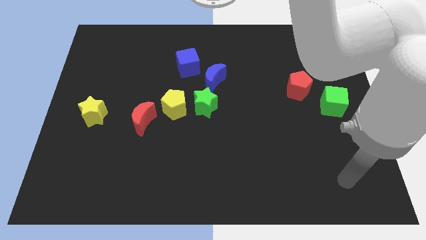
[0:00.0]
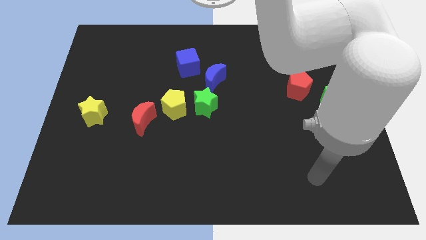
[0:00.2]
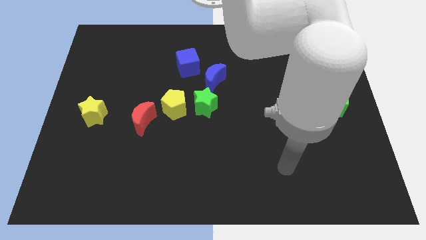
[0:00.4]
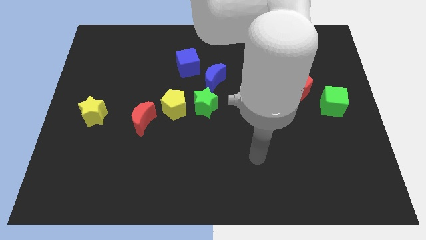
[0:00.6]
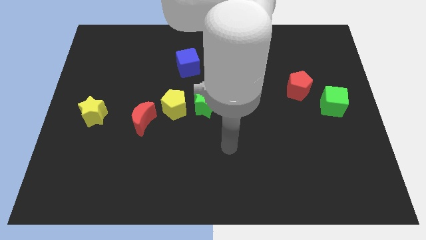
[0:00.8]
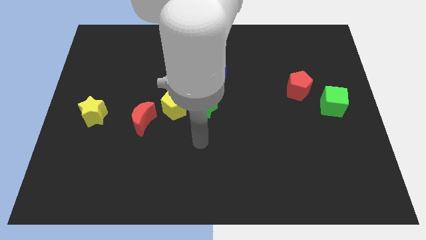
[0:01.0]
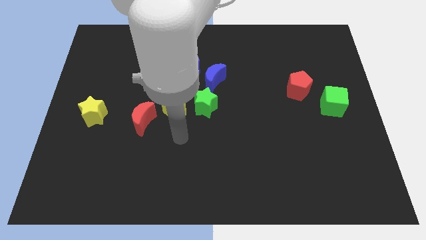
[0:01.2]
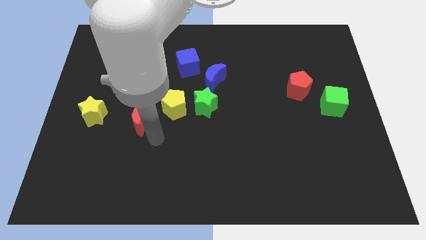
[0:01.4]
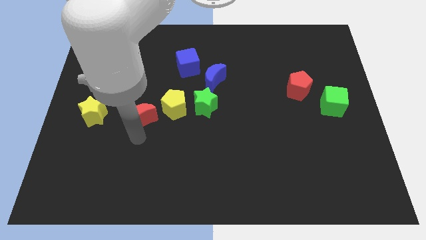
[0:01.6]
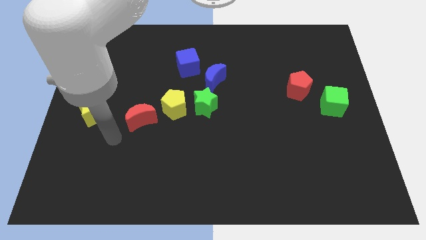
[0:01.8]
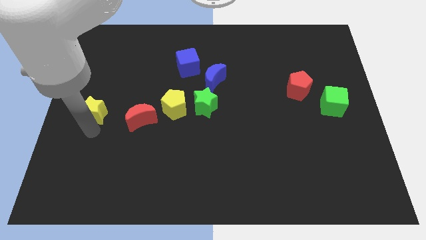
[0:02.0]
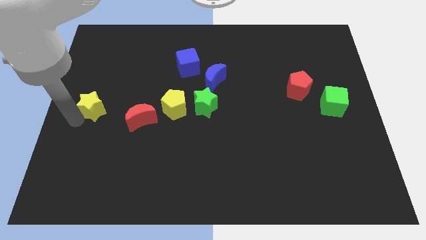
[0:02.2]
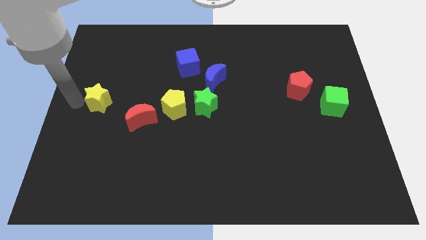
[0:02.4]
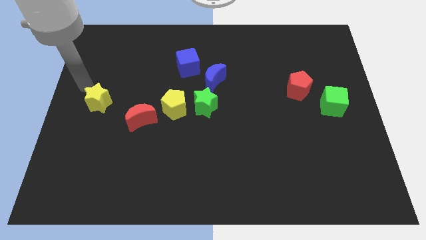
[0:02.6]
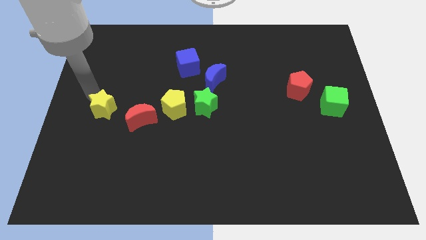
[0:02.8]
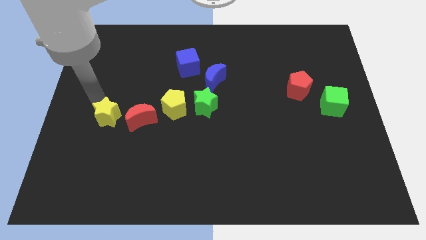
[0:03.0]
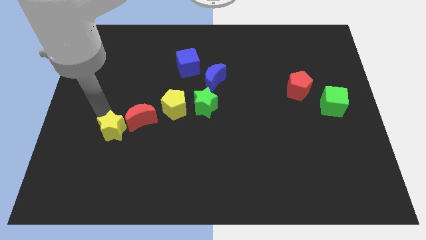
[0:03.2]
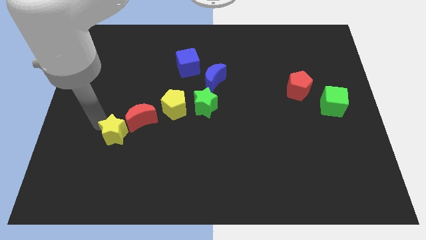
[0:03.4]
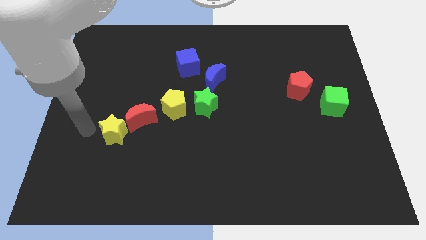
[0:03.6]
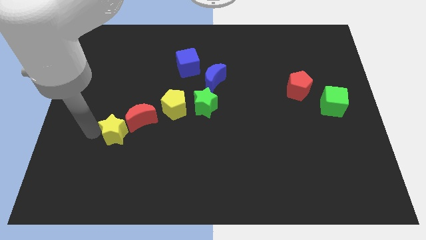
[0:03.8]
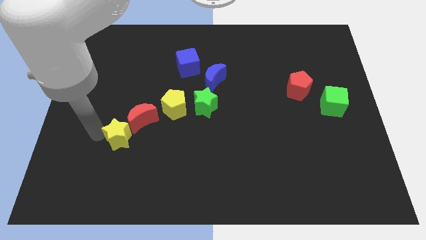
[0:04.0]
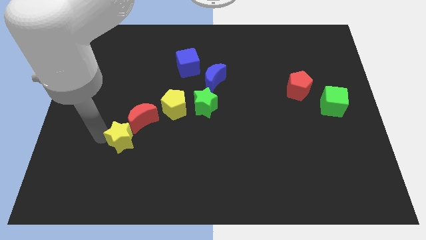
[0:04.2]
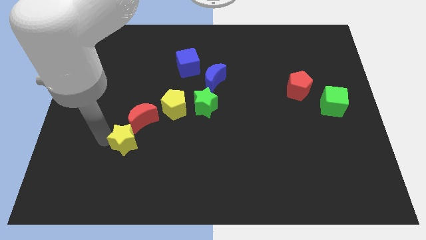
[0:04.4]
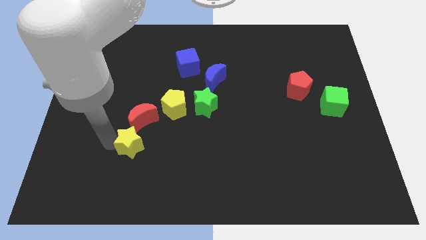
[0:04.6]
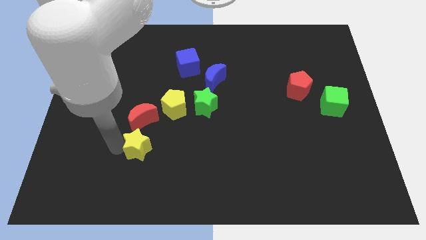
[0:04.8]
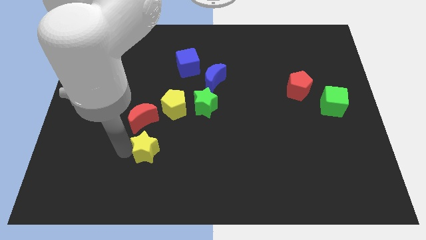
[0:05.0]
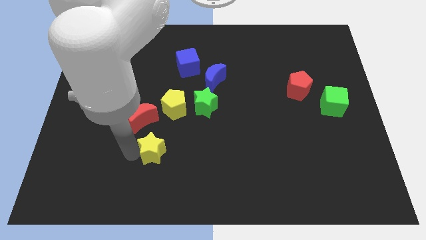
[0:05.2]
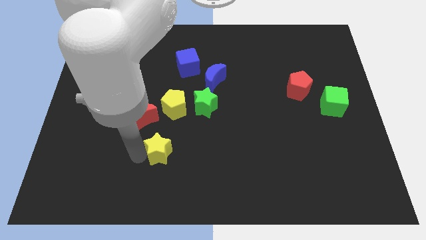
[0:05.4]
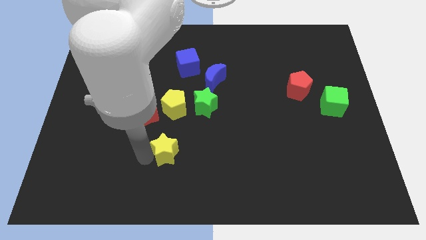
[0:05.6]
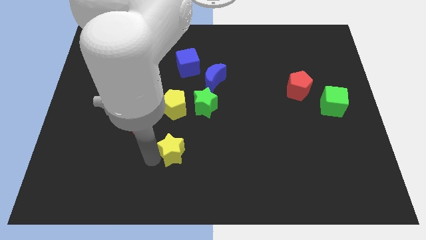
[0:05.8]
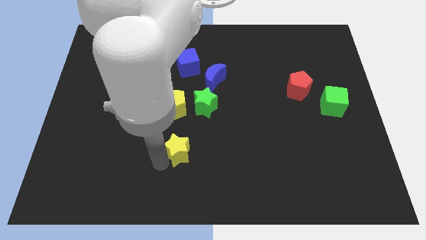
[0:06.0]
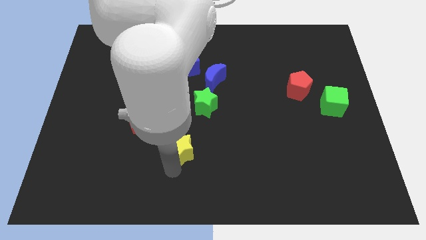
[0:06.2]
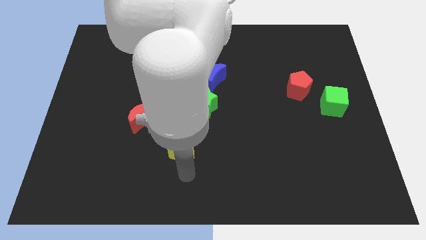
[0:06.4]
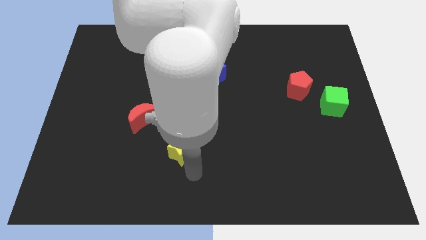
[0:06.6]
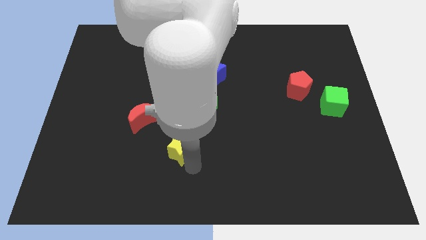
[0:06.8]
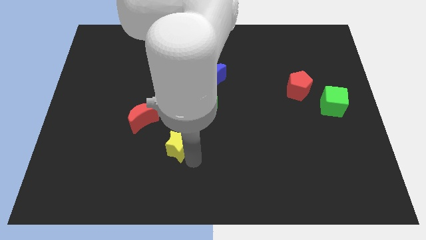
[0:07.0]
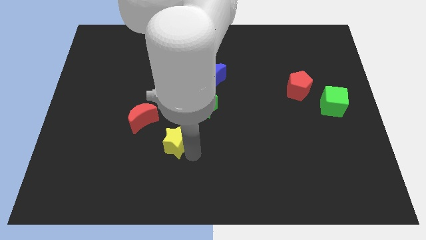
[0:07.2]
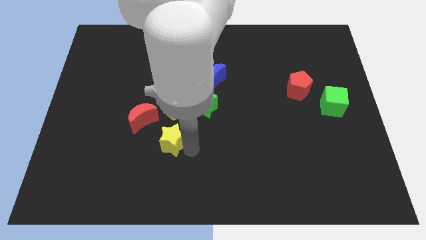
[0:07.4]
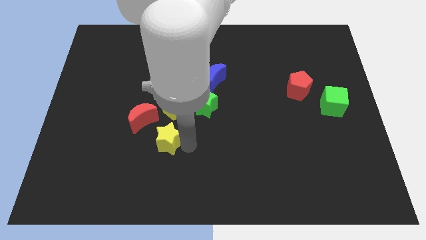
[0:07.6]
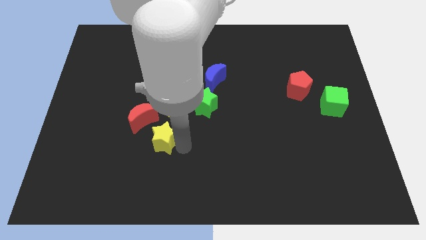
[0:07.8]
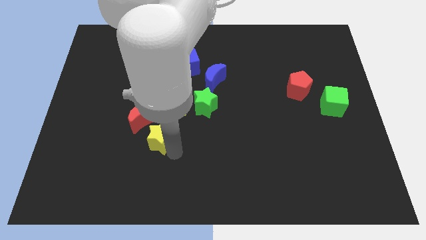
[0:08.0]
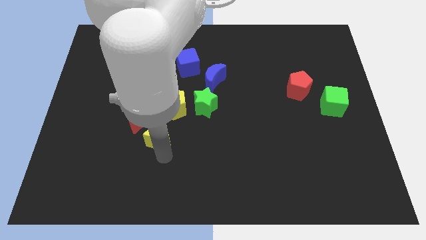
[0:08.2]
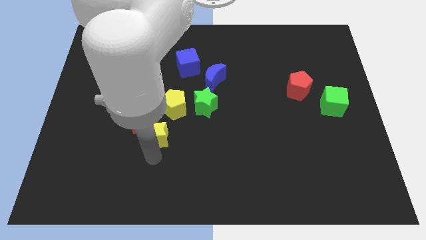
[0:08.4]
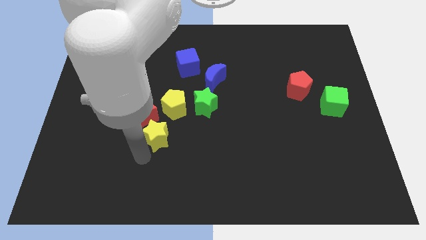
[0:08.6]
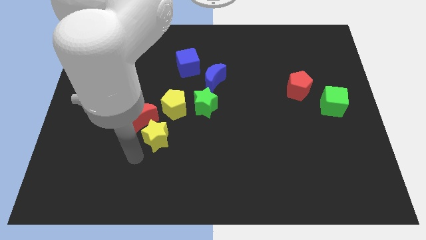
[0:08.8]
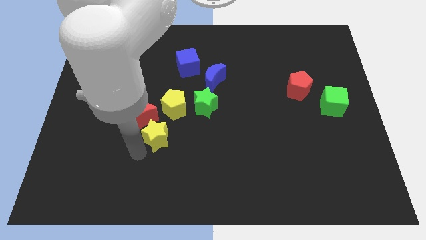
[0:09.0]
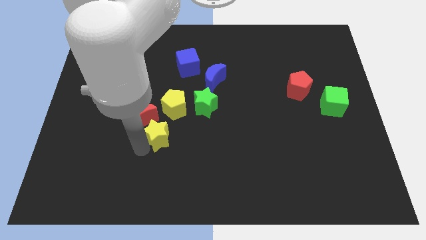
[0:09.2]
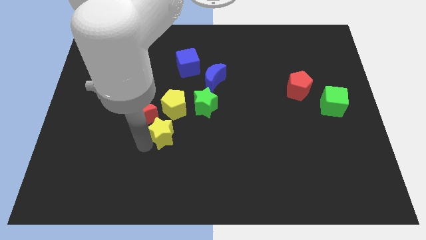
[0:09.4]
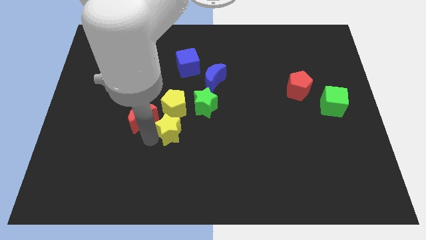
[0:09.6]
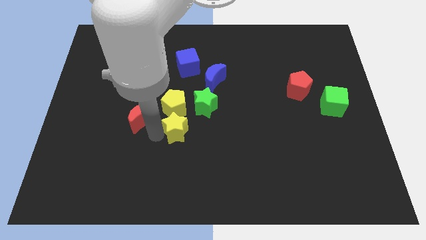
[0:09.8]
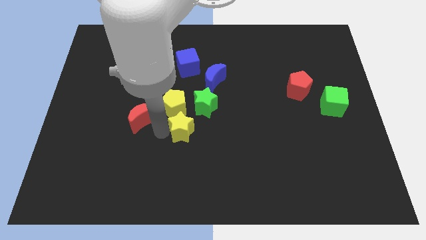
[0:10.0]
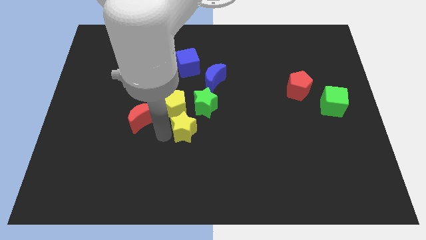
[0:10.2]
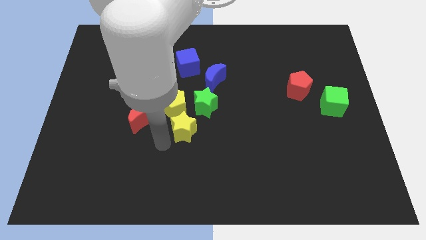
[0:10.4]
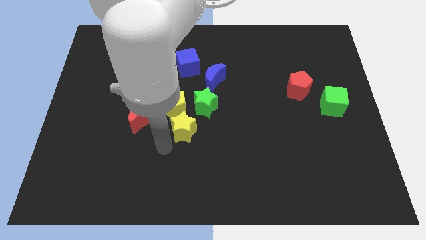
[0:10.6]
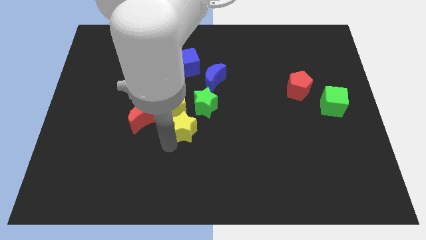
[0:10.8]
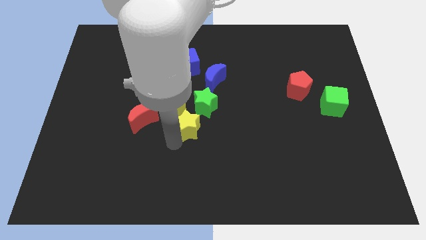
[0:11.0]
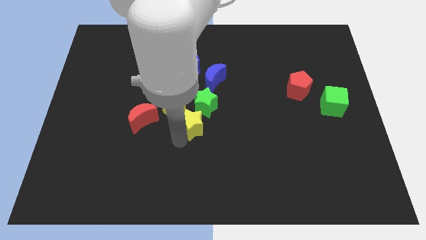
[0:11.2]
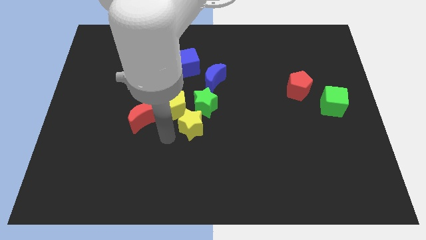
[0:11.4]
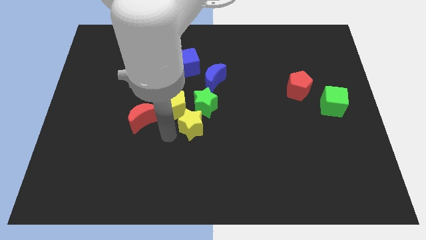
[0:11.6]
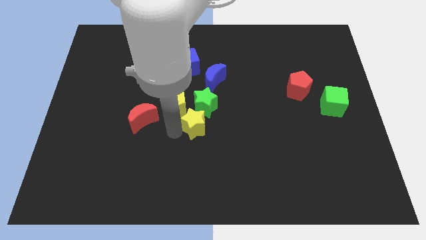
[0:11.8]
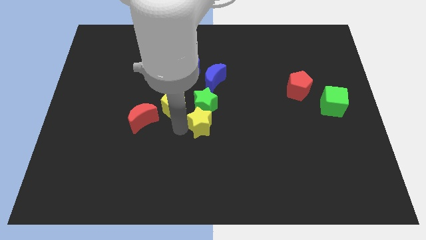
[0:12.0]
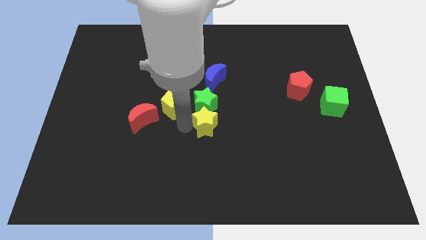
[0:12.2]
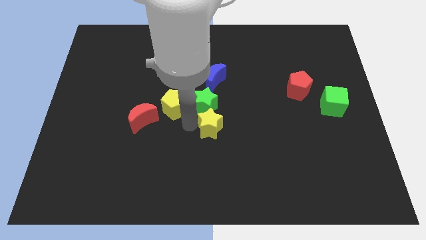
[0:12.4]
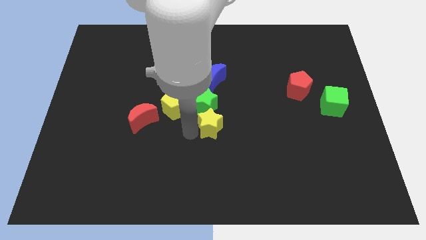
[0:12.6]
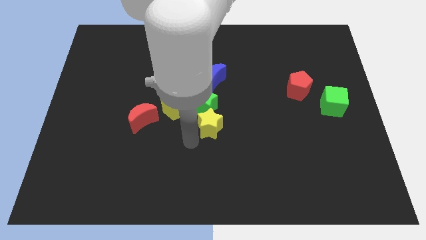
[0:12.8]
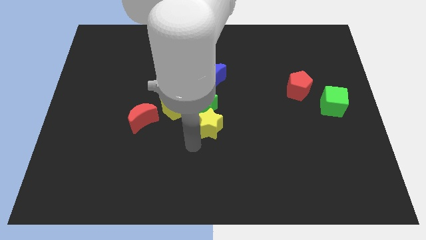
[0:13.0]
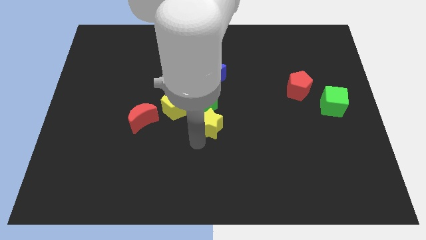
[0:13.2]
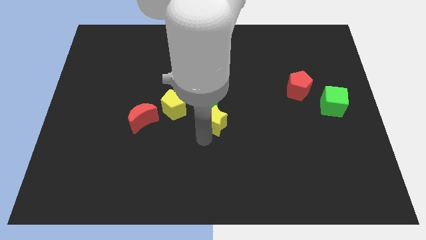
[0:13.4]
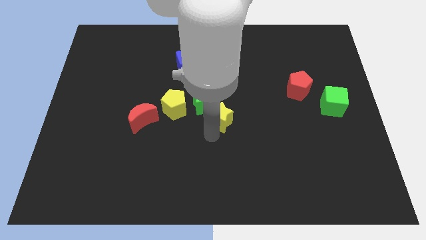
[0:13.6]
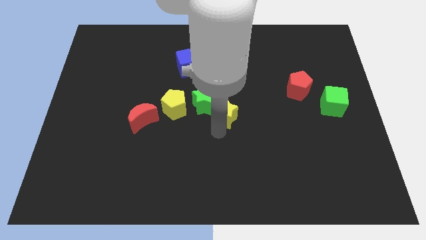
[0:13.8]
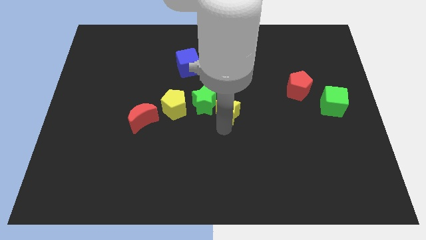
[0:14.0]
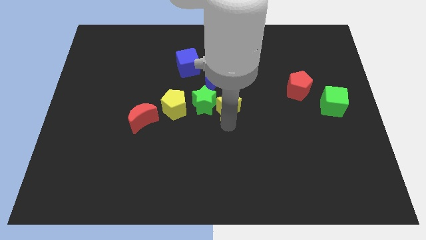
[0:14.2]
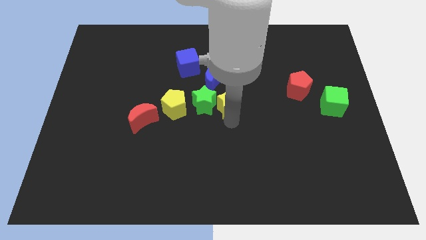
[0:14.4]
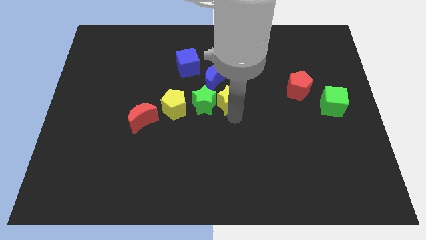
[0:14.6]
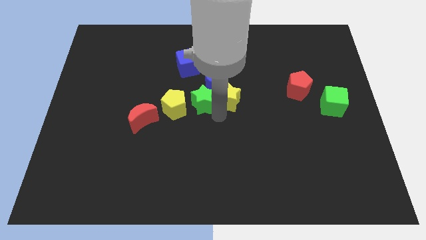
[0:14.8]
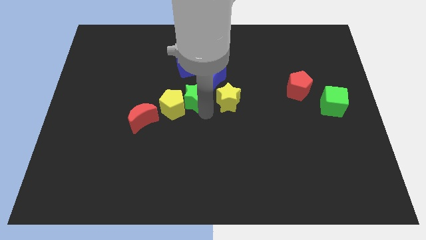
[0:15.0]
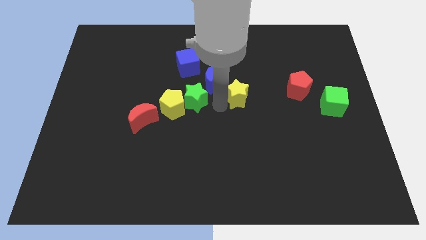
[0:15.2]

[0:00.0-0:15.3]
move the yellow star left of the red pentagon
